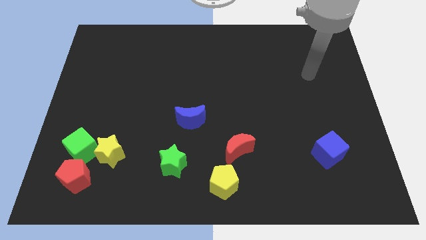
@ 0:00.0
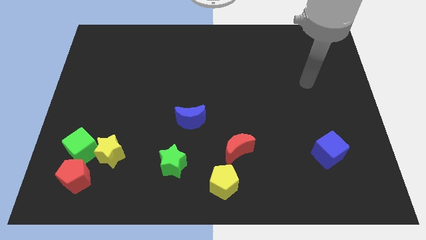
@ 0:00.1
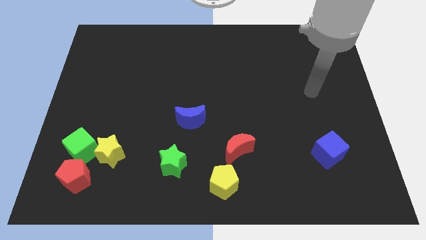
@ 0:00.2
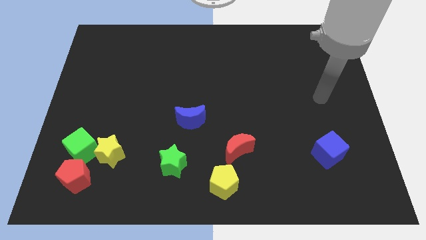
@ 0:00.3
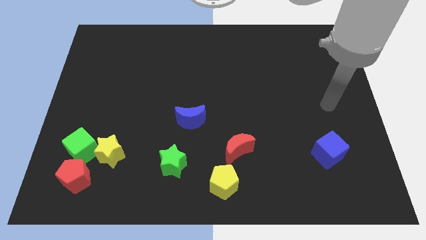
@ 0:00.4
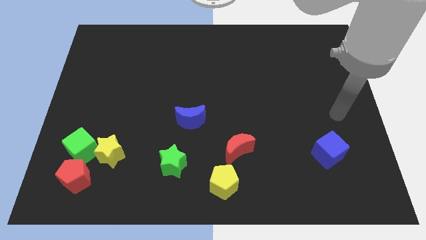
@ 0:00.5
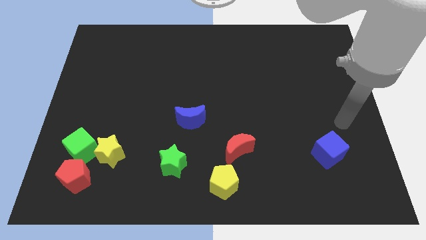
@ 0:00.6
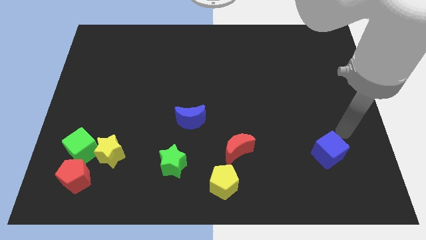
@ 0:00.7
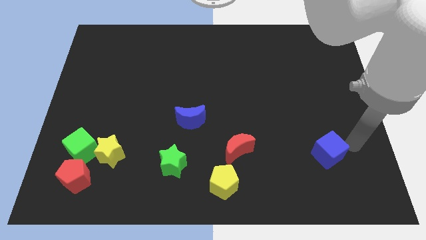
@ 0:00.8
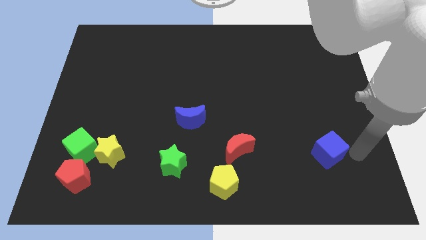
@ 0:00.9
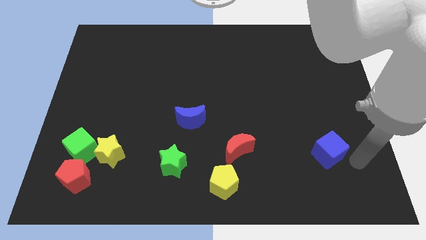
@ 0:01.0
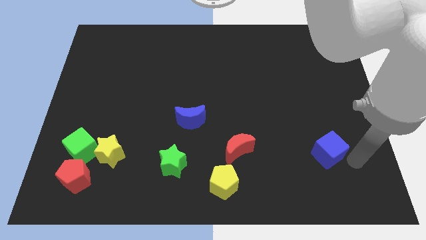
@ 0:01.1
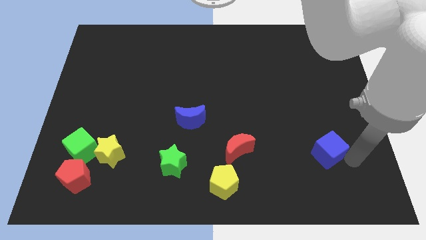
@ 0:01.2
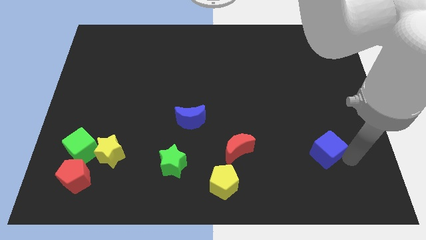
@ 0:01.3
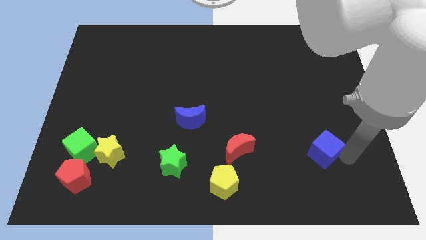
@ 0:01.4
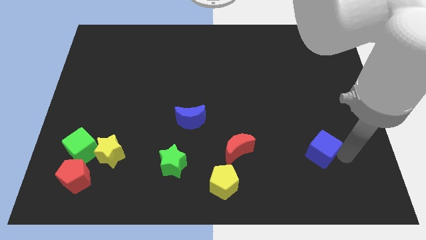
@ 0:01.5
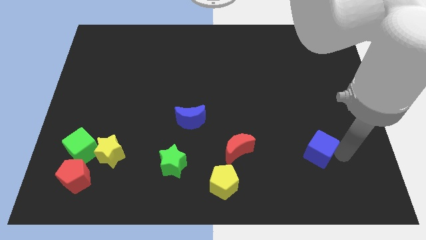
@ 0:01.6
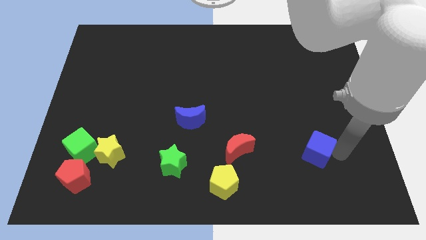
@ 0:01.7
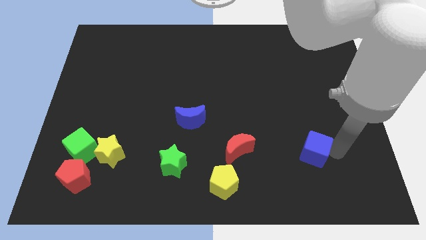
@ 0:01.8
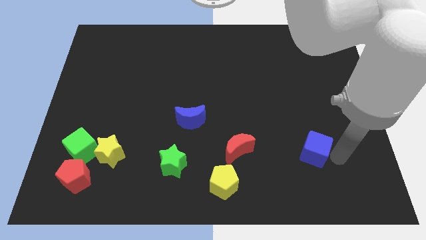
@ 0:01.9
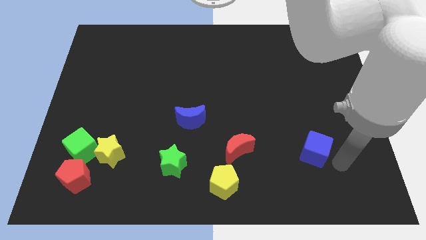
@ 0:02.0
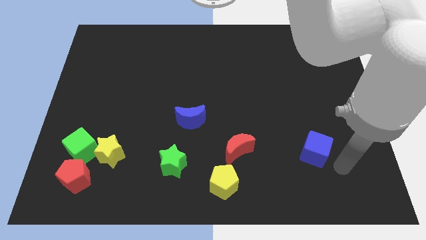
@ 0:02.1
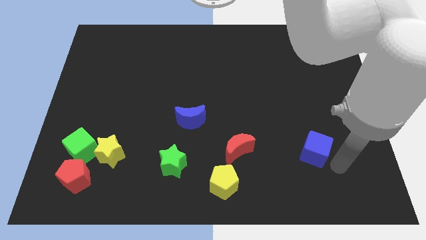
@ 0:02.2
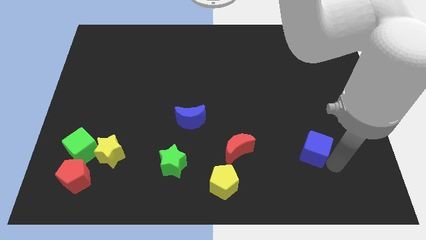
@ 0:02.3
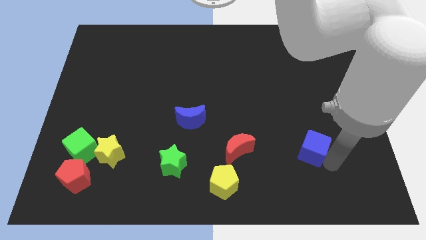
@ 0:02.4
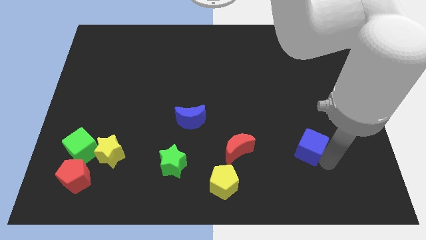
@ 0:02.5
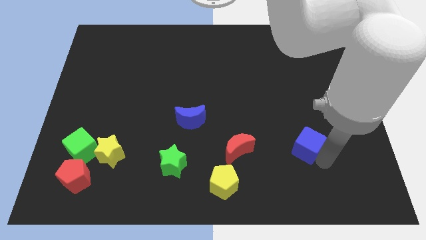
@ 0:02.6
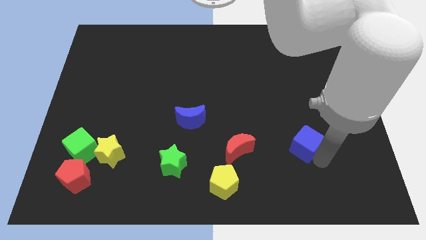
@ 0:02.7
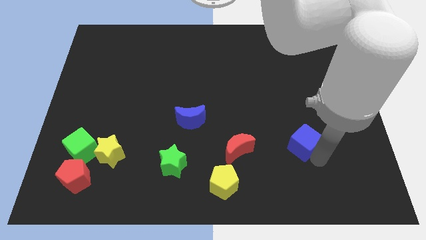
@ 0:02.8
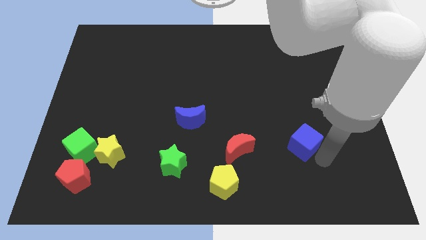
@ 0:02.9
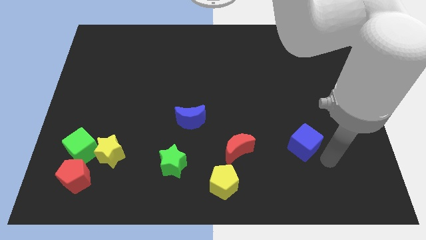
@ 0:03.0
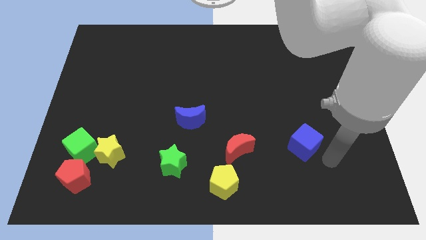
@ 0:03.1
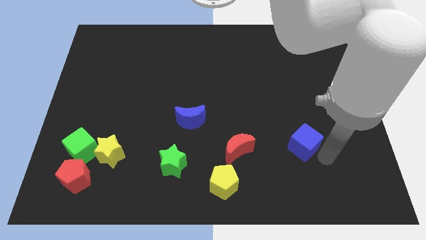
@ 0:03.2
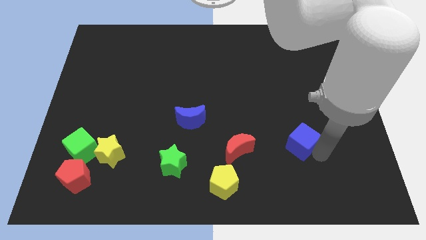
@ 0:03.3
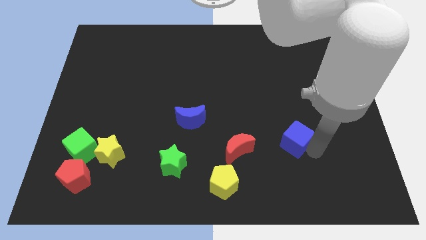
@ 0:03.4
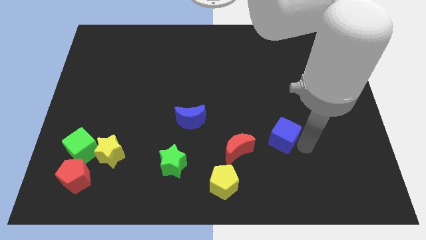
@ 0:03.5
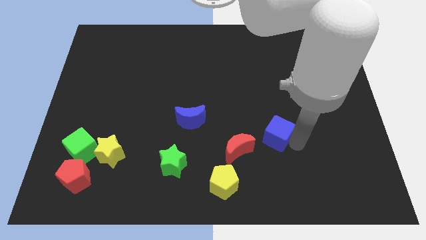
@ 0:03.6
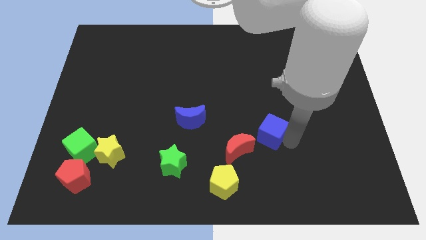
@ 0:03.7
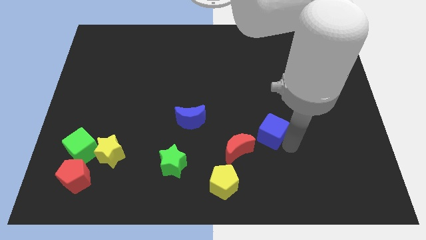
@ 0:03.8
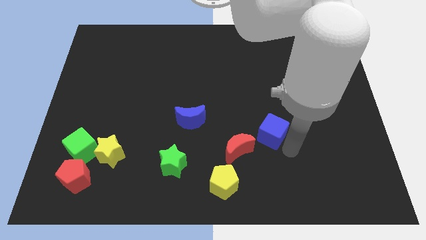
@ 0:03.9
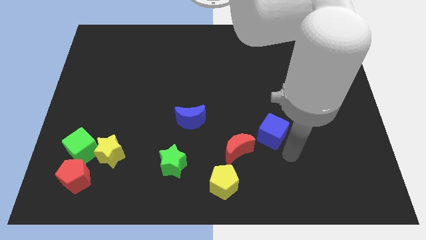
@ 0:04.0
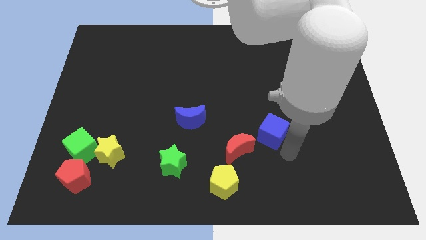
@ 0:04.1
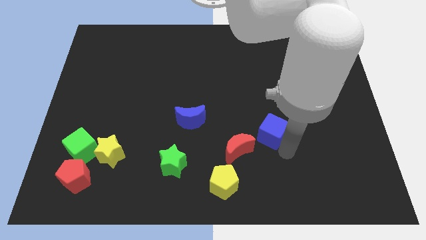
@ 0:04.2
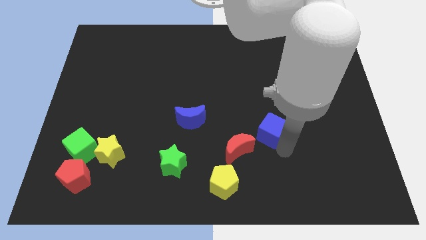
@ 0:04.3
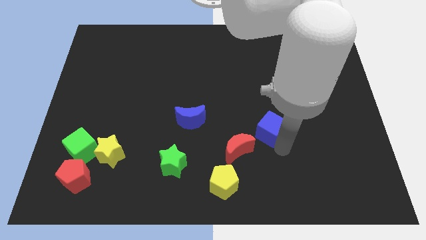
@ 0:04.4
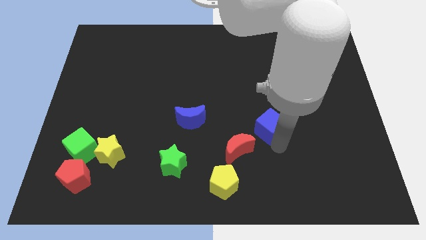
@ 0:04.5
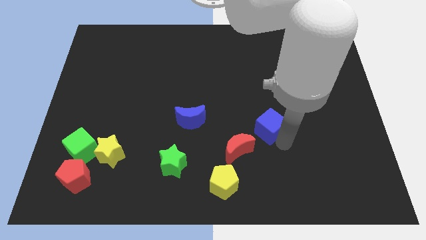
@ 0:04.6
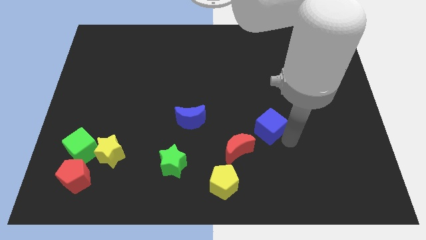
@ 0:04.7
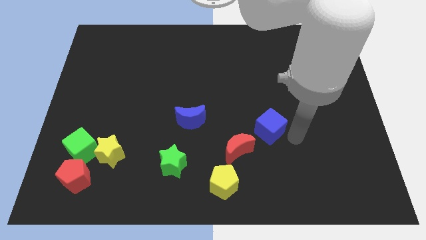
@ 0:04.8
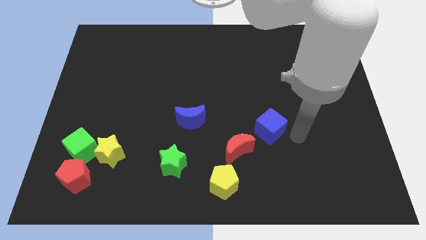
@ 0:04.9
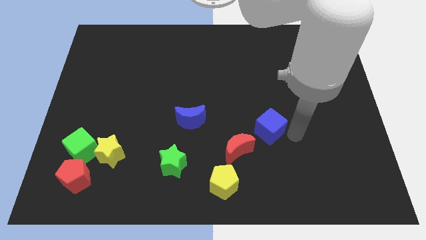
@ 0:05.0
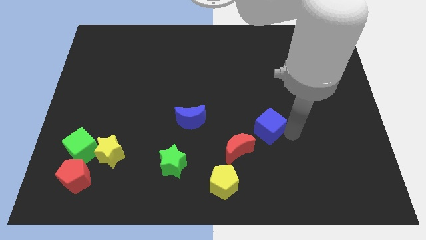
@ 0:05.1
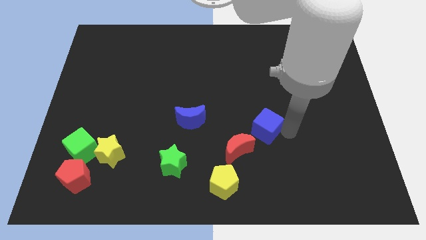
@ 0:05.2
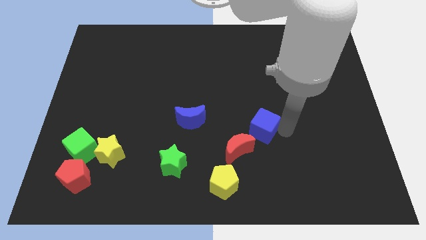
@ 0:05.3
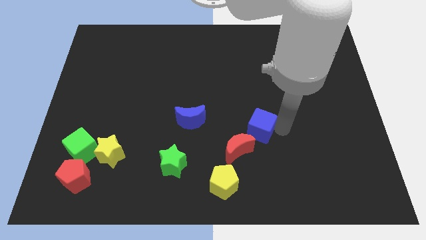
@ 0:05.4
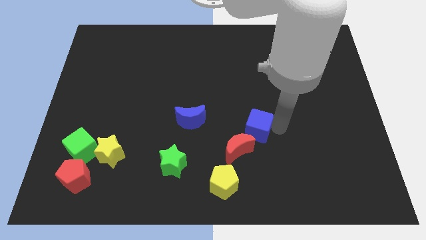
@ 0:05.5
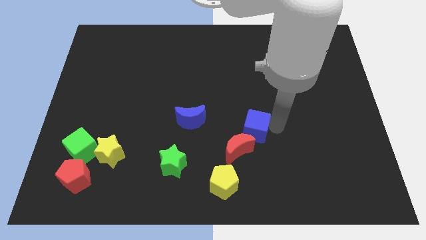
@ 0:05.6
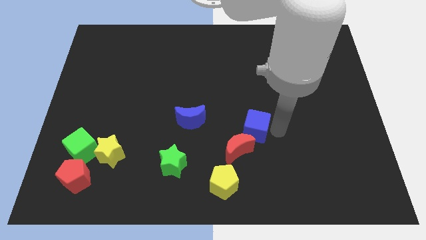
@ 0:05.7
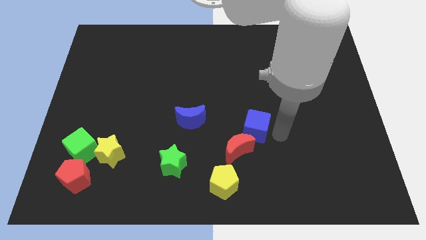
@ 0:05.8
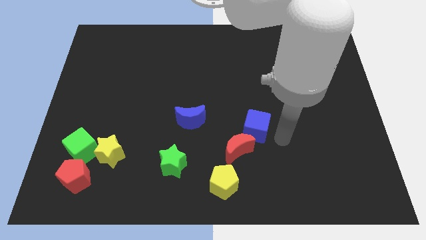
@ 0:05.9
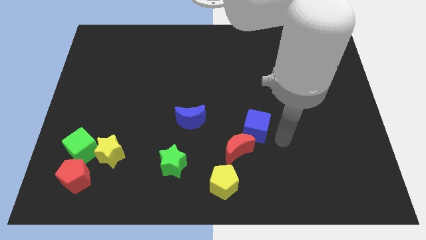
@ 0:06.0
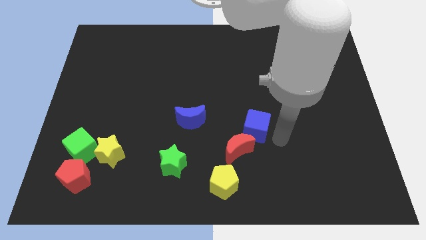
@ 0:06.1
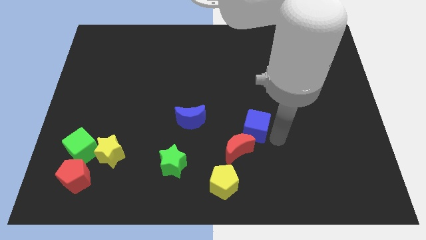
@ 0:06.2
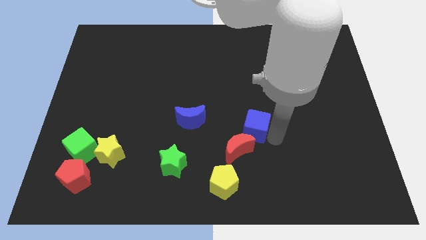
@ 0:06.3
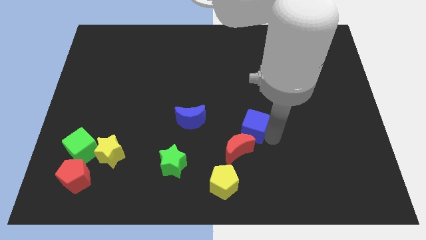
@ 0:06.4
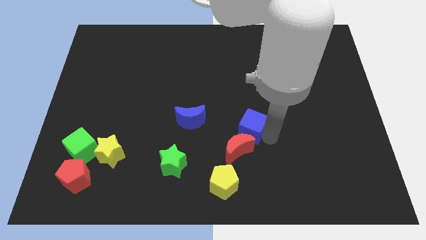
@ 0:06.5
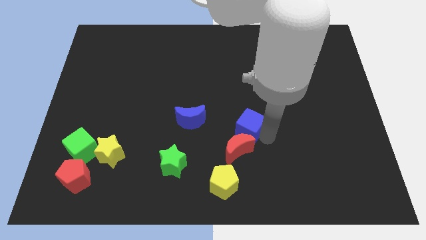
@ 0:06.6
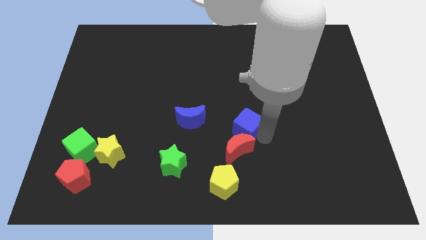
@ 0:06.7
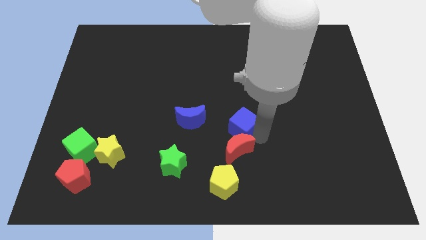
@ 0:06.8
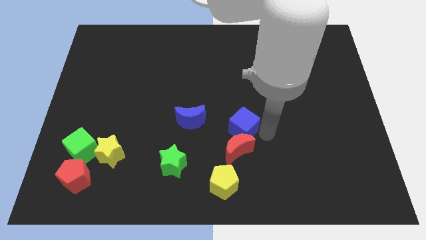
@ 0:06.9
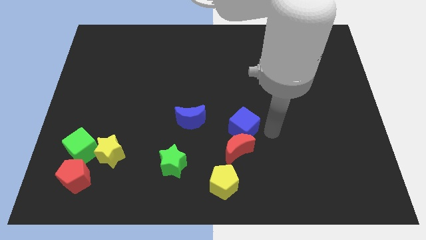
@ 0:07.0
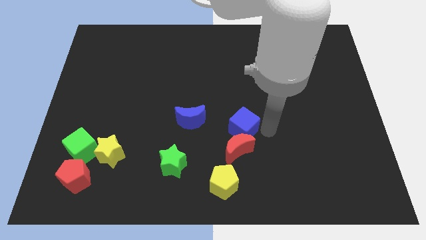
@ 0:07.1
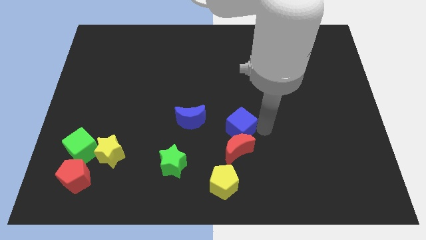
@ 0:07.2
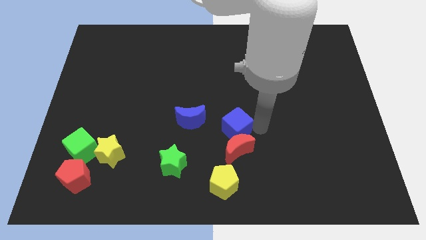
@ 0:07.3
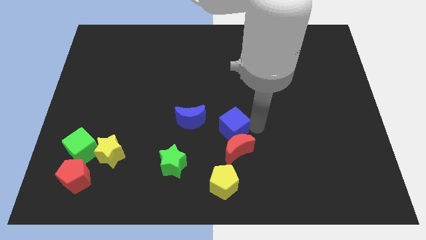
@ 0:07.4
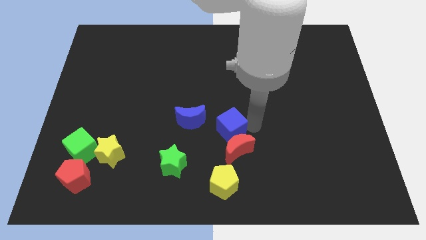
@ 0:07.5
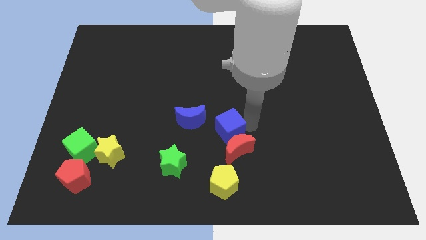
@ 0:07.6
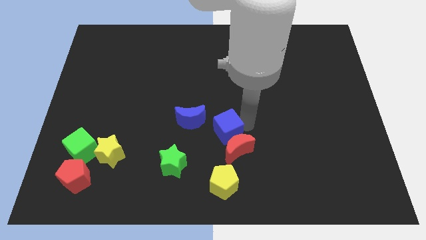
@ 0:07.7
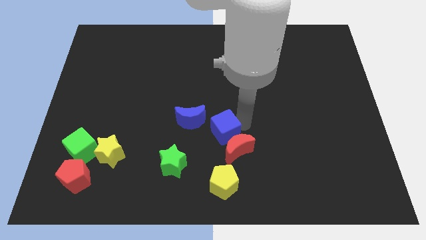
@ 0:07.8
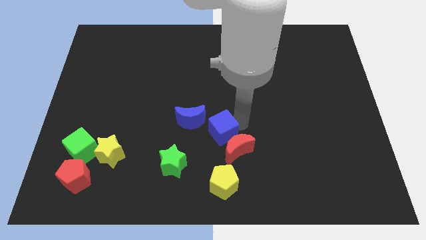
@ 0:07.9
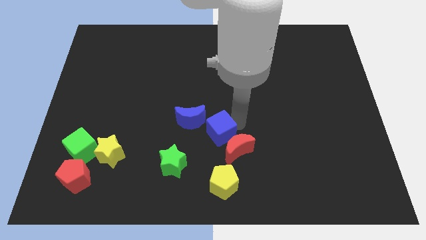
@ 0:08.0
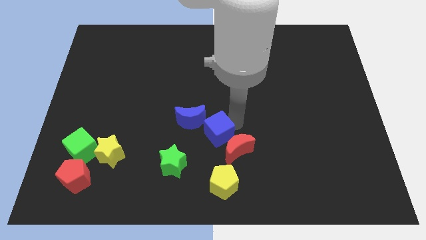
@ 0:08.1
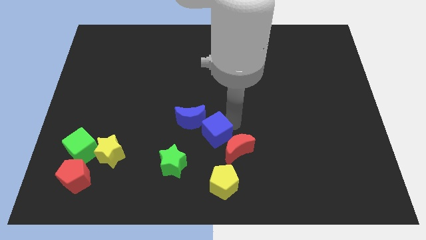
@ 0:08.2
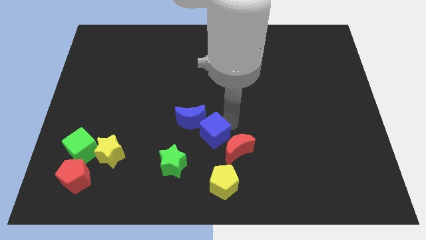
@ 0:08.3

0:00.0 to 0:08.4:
move the blue cube next to the blue moon
